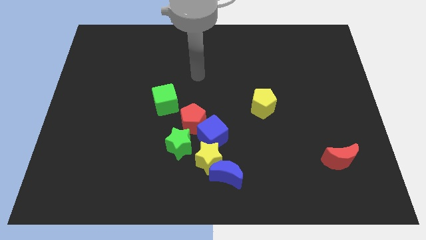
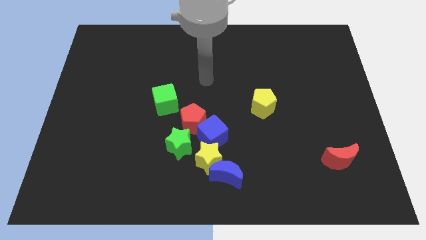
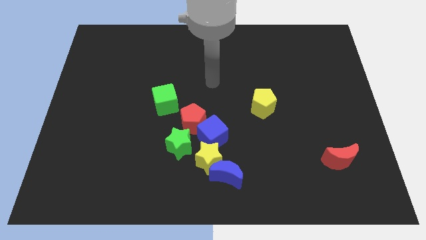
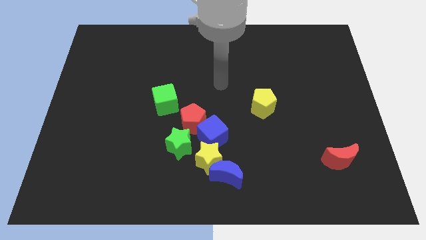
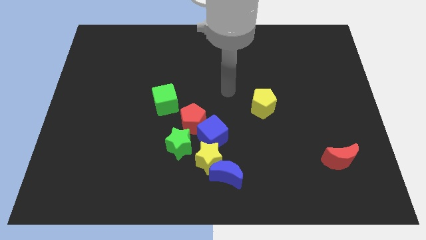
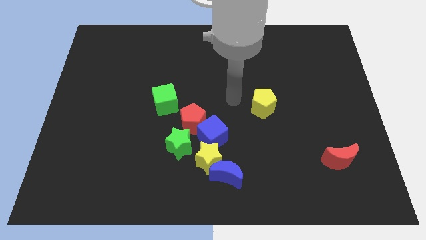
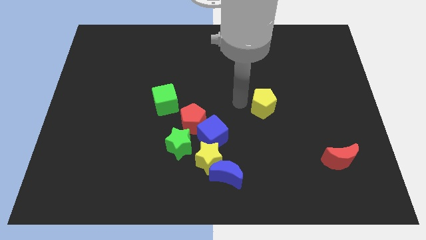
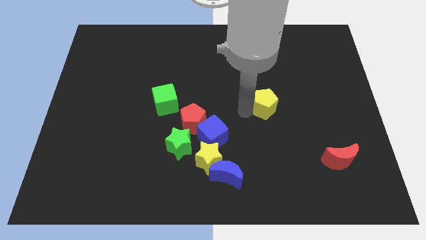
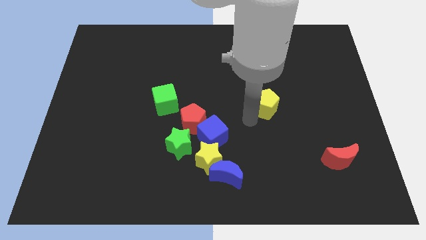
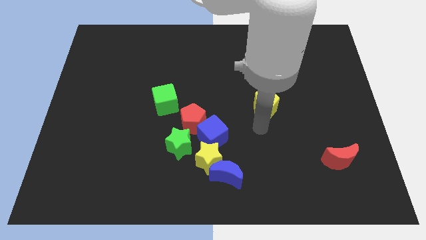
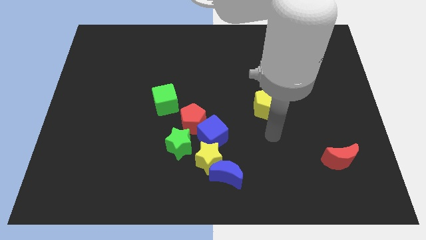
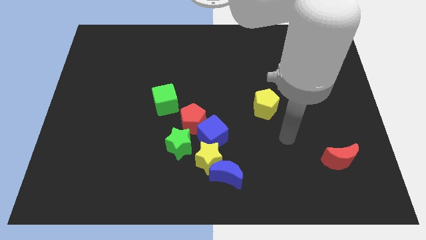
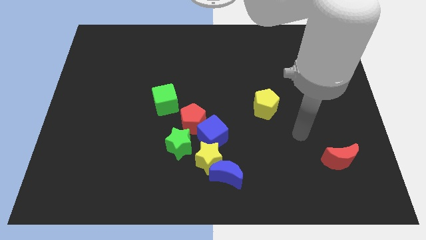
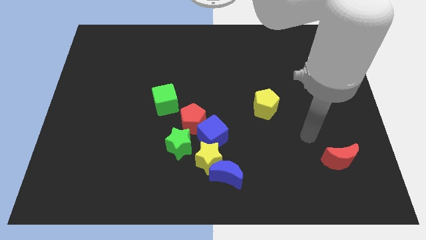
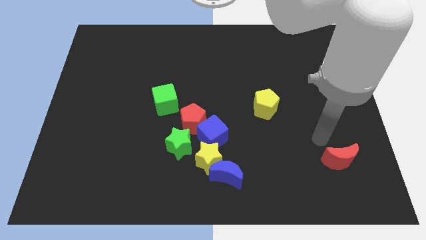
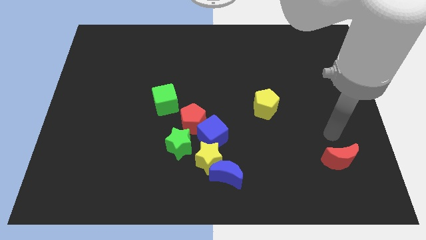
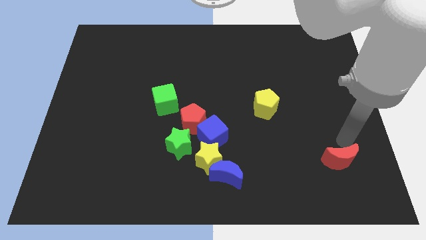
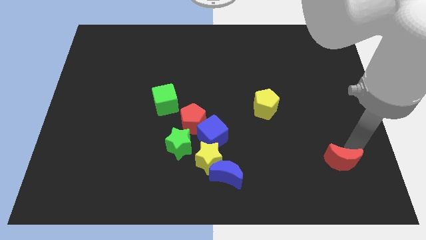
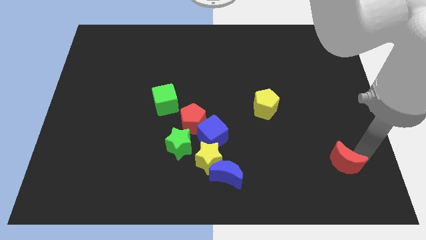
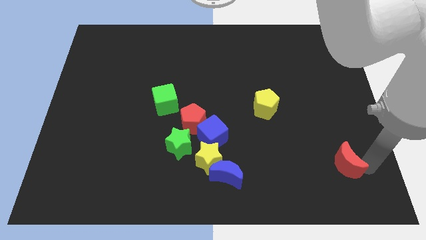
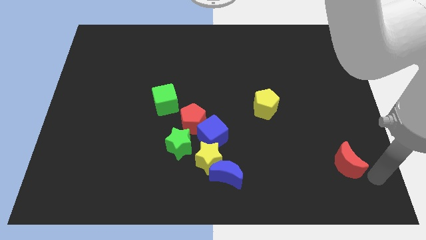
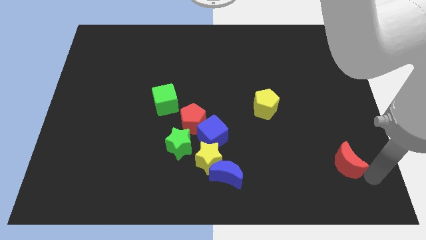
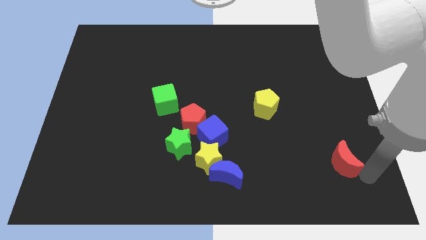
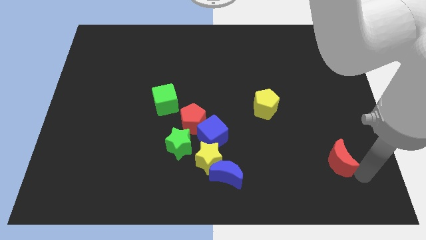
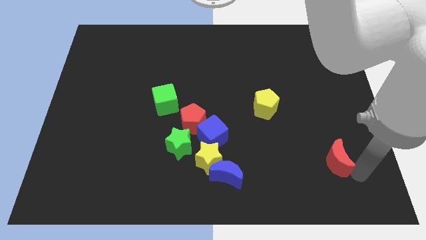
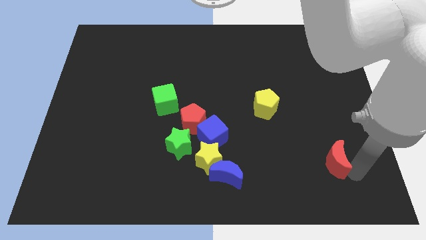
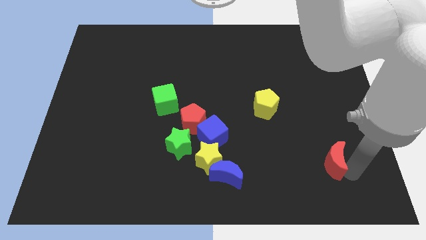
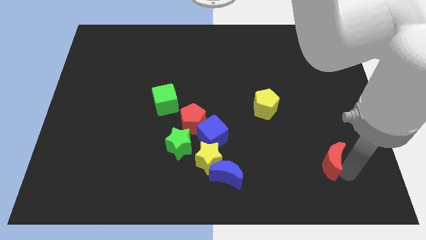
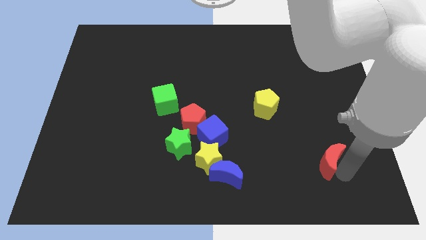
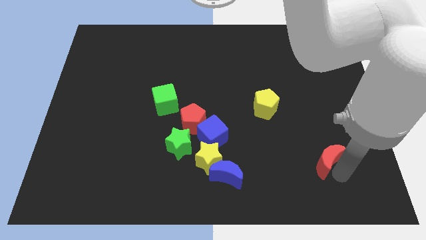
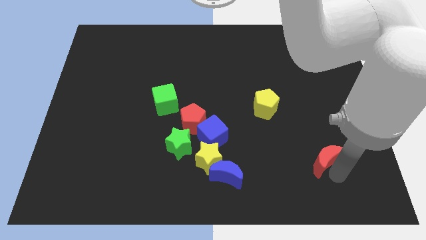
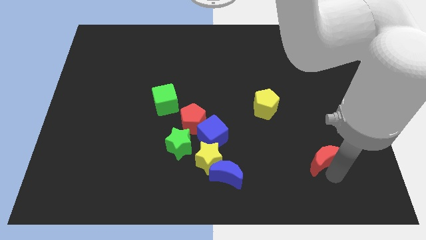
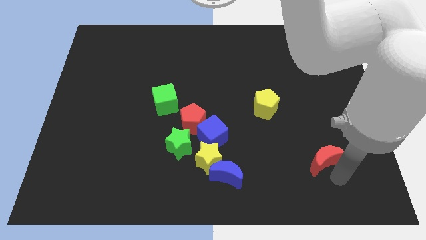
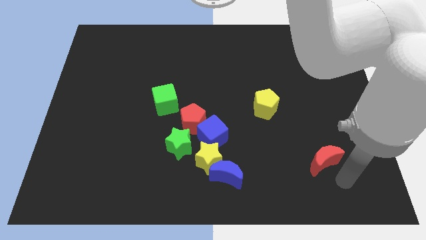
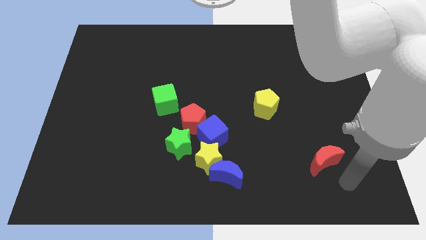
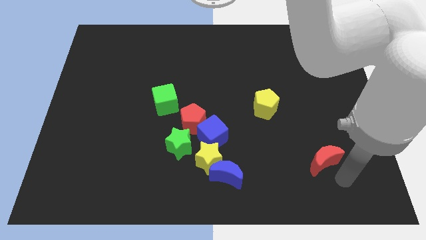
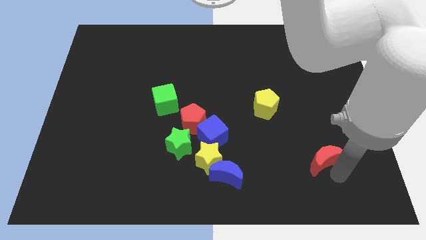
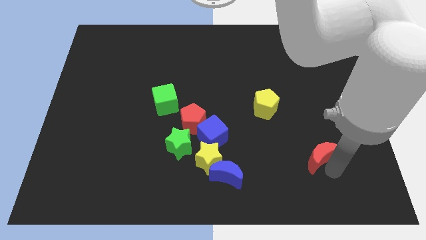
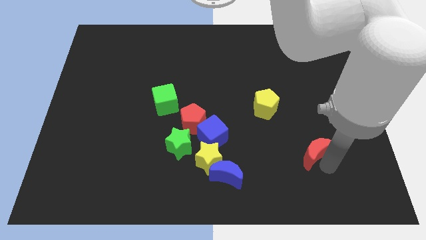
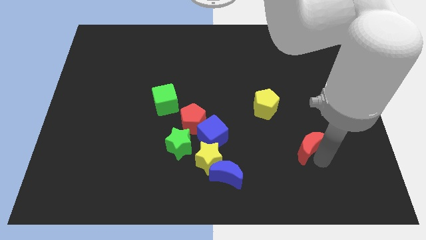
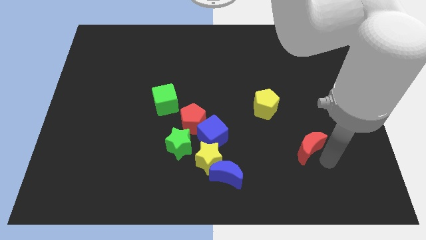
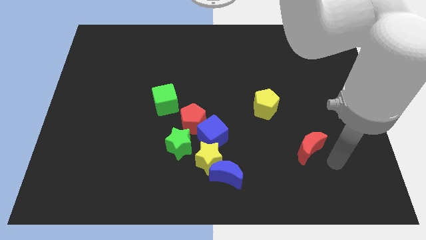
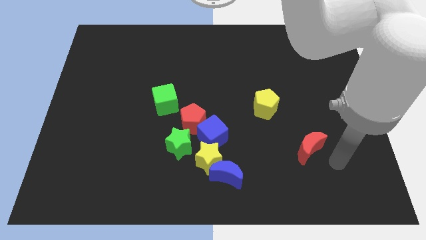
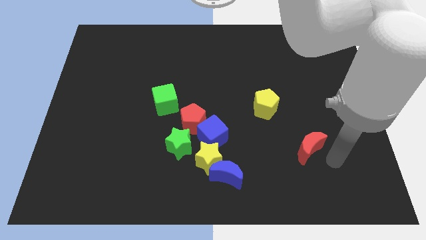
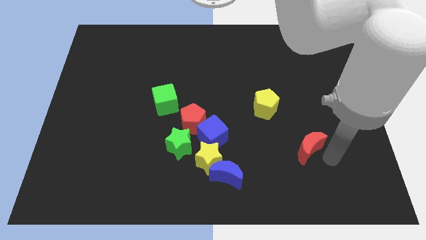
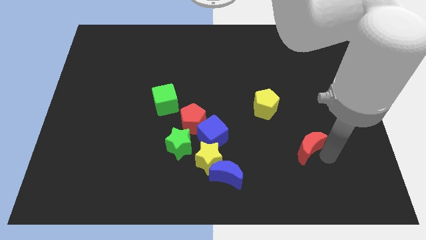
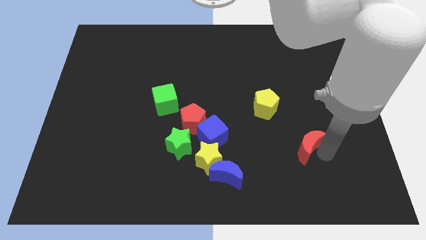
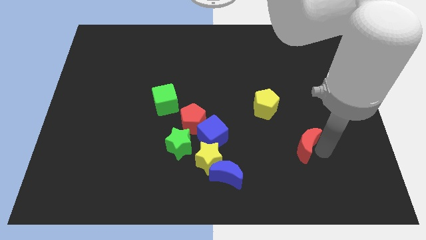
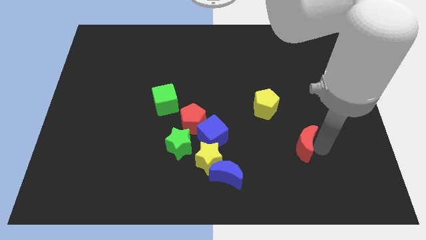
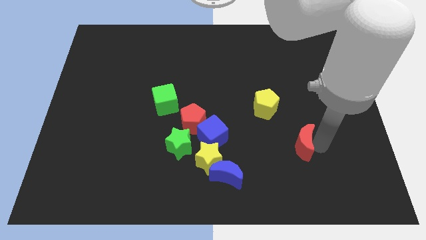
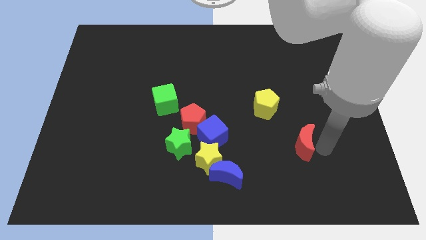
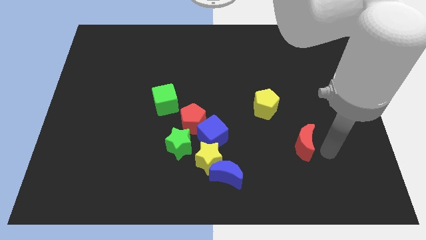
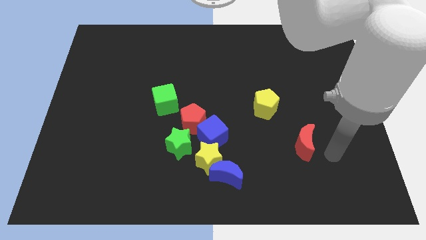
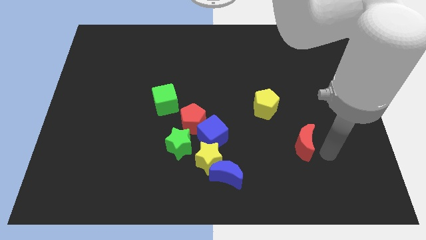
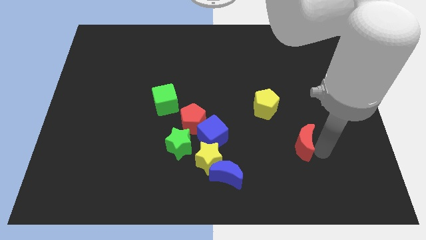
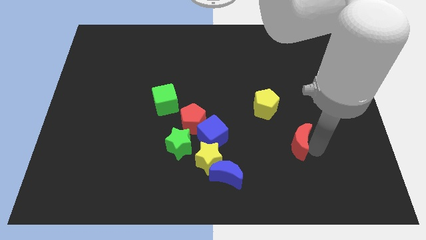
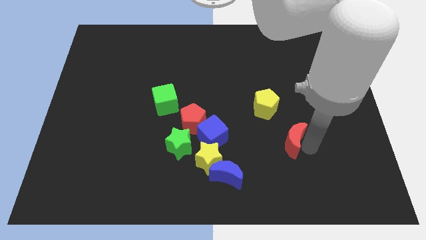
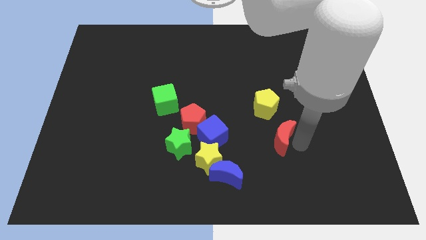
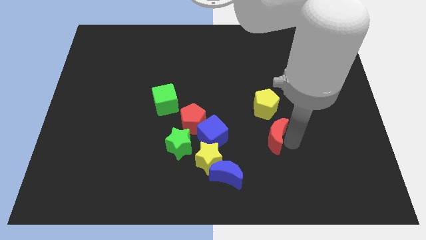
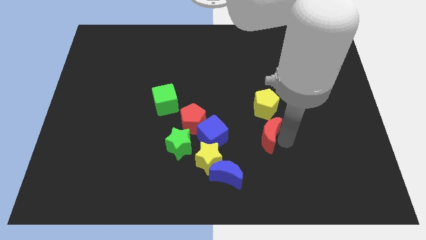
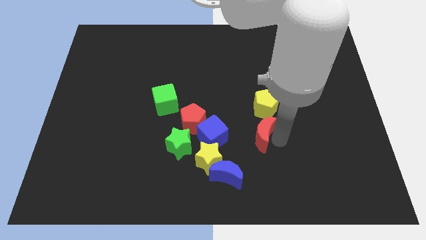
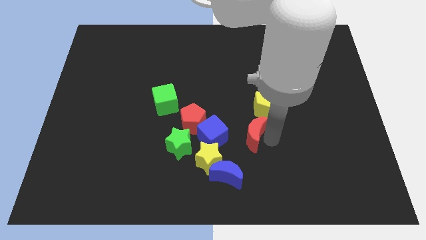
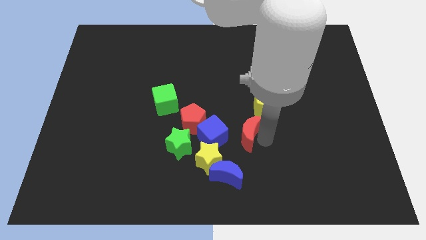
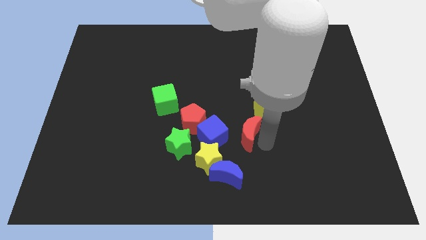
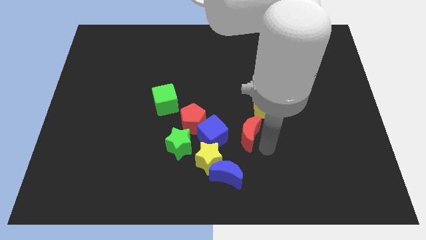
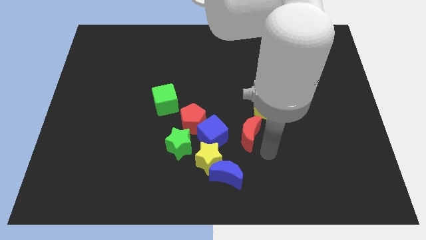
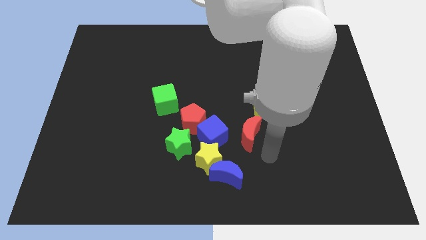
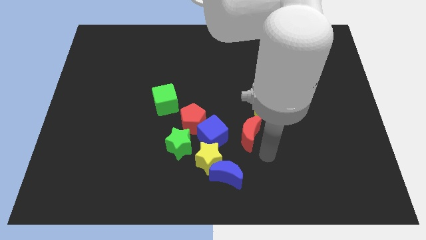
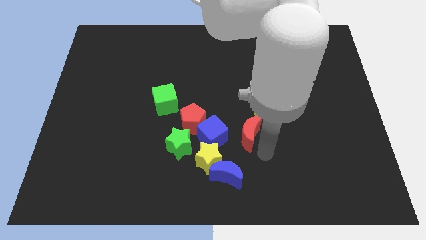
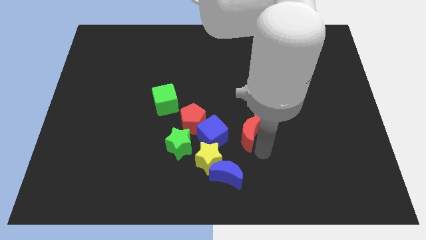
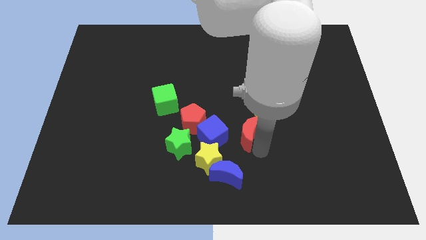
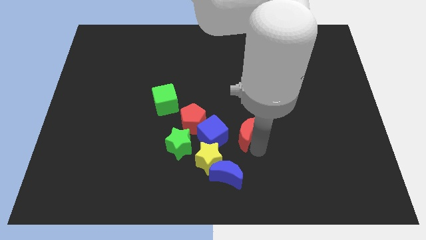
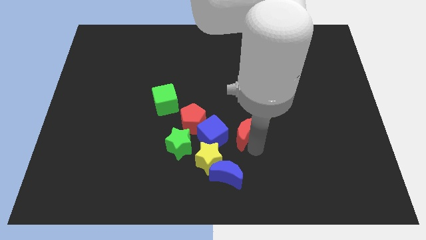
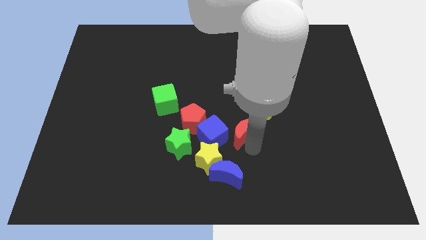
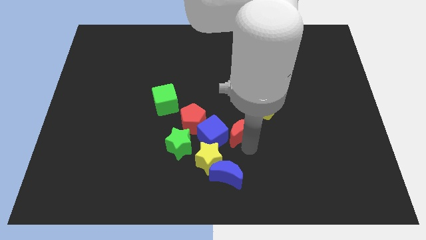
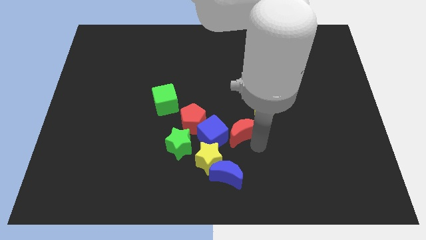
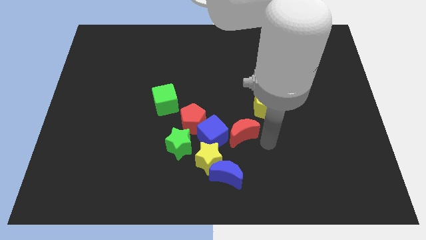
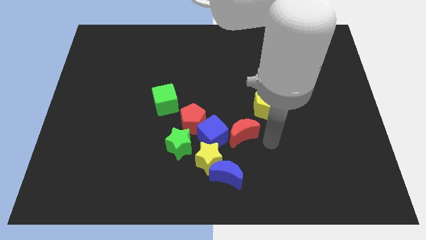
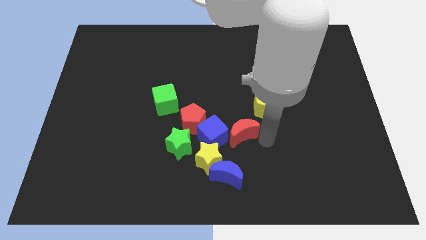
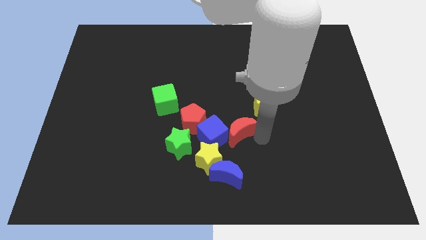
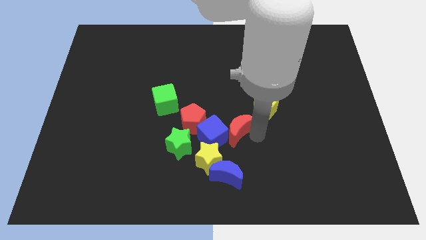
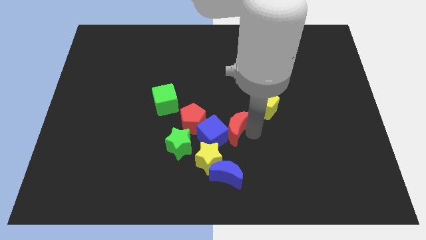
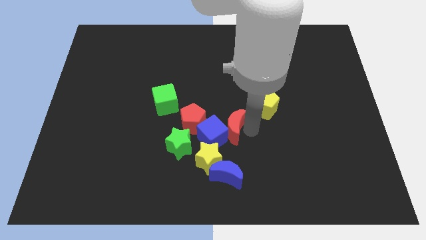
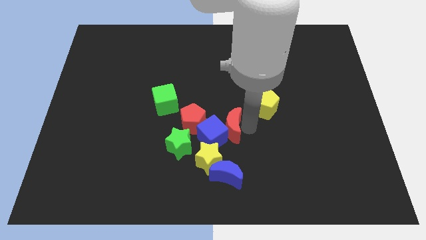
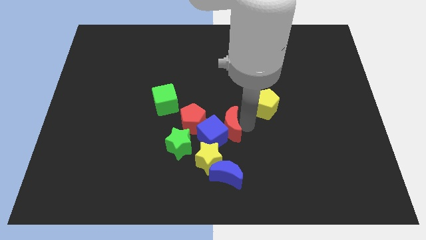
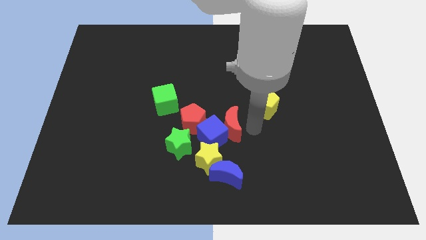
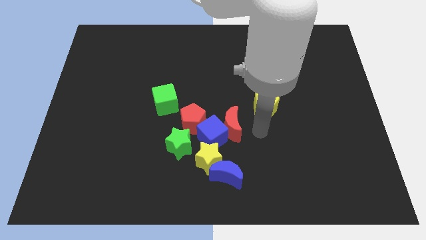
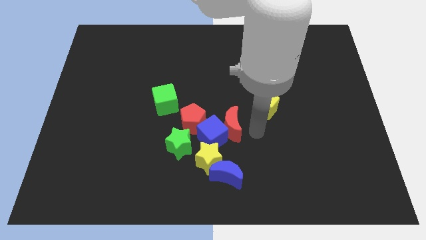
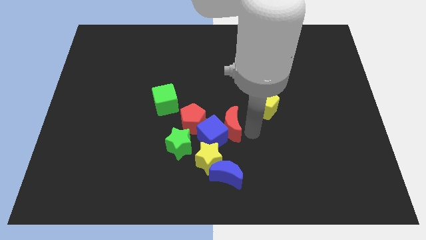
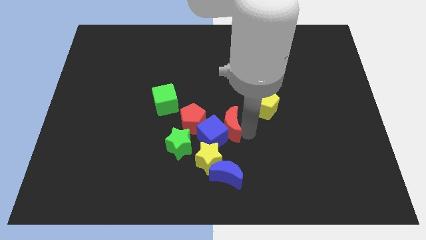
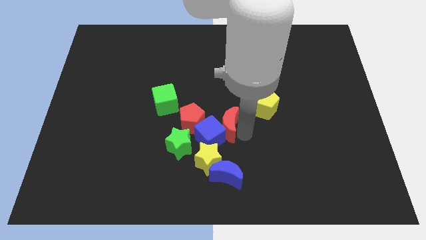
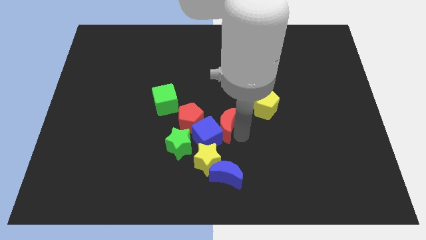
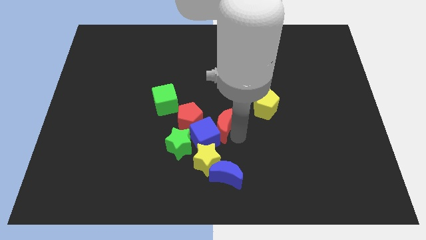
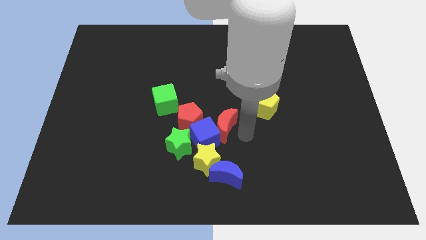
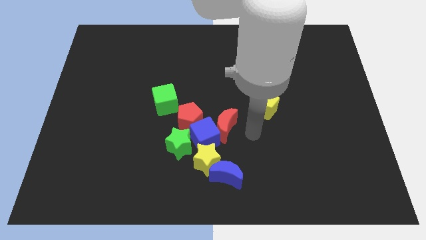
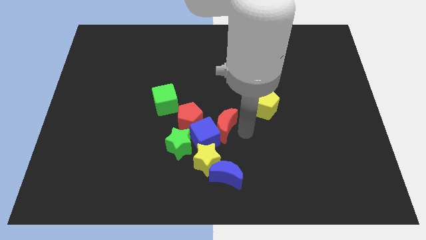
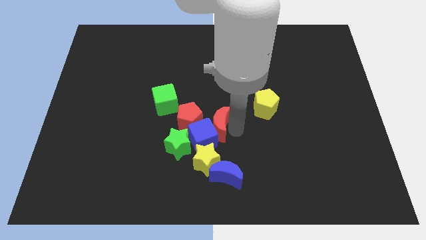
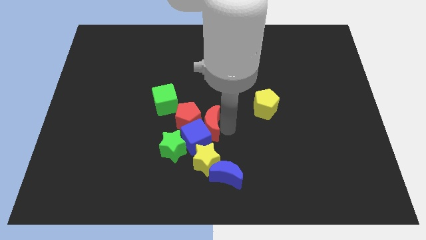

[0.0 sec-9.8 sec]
push the red moon close to the red pentagon
